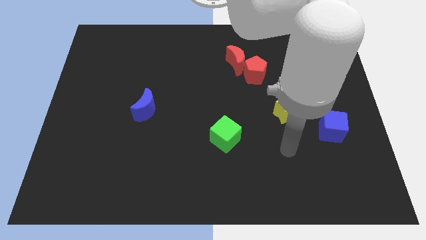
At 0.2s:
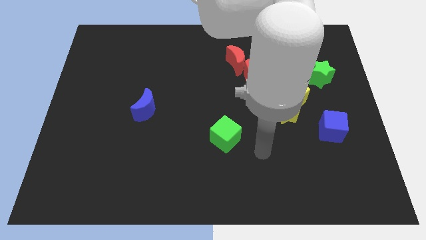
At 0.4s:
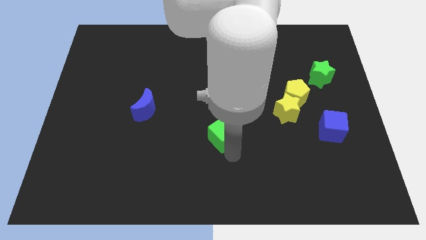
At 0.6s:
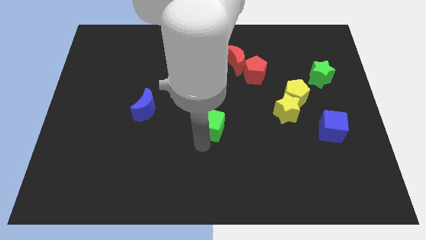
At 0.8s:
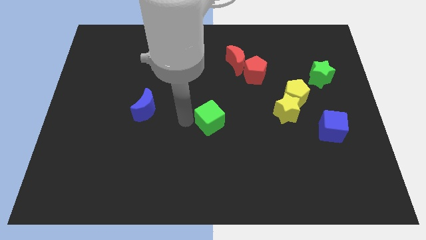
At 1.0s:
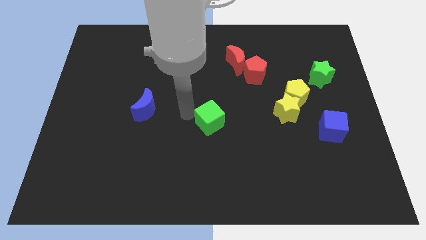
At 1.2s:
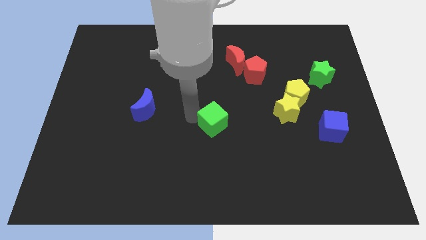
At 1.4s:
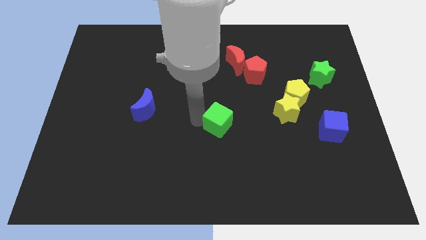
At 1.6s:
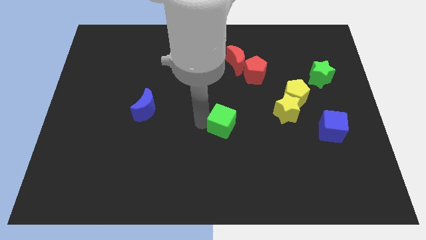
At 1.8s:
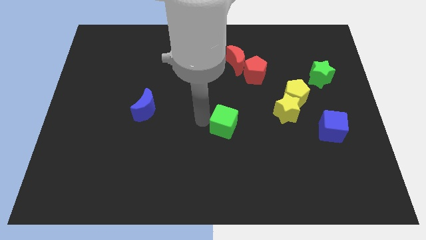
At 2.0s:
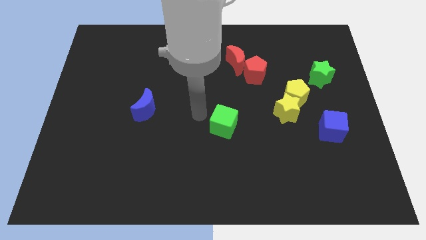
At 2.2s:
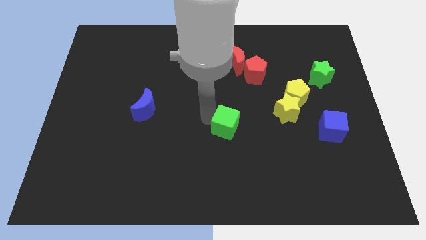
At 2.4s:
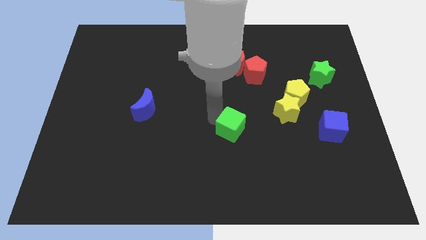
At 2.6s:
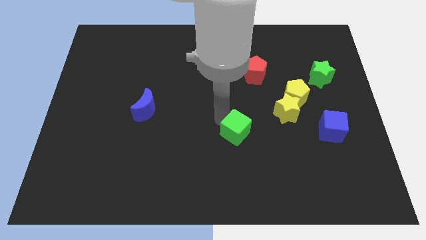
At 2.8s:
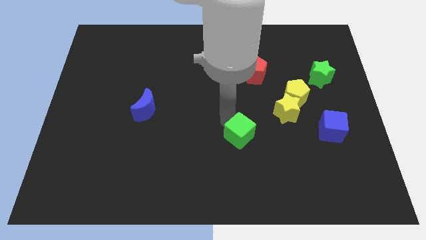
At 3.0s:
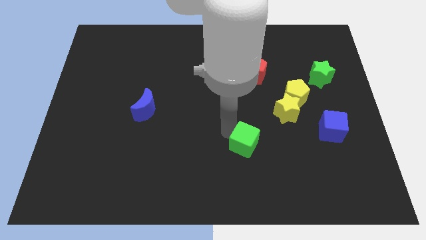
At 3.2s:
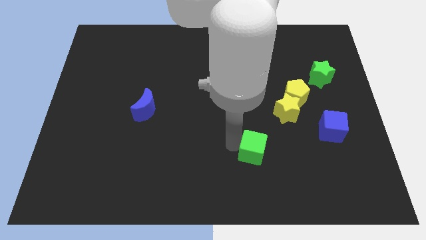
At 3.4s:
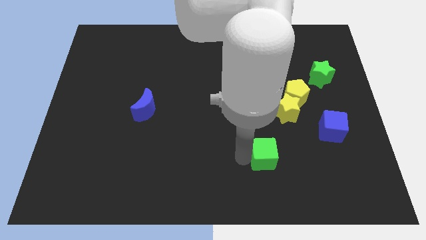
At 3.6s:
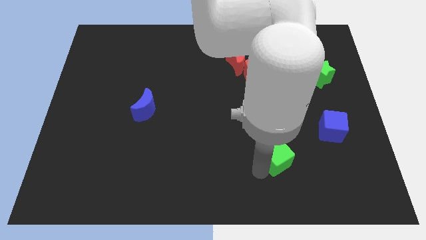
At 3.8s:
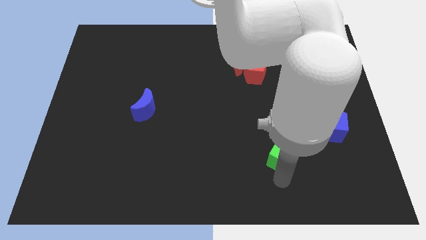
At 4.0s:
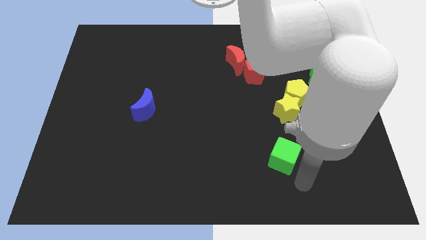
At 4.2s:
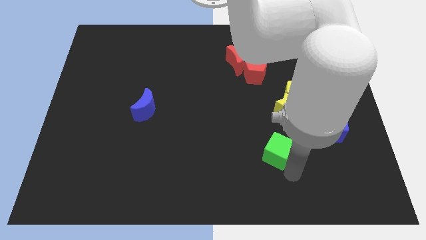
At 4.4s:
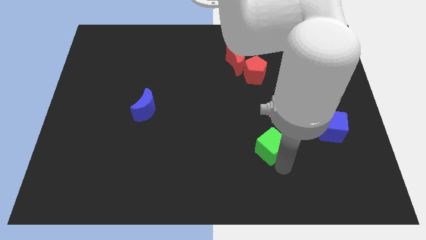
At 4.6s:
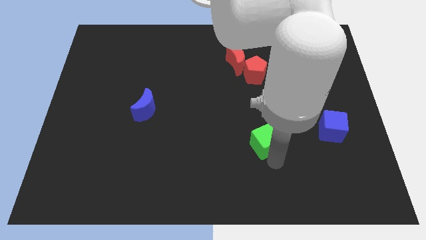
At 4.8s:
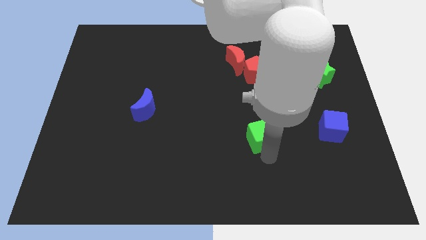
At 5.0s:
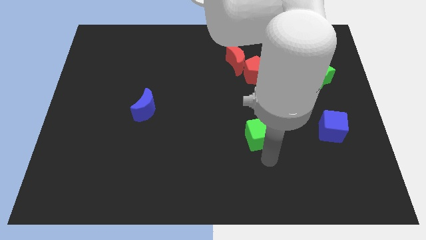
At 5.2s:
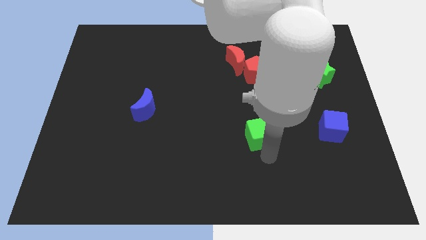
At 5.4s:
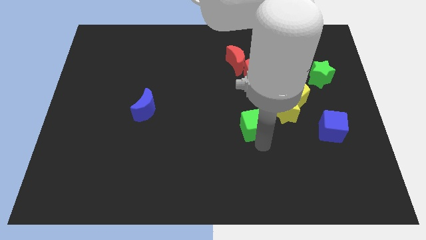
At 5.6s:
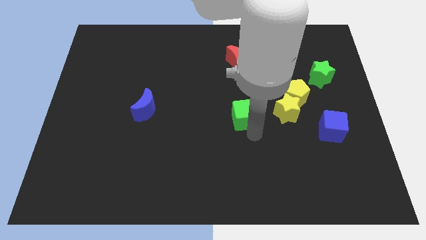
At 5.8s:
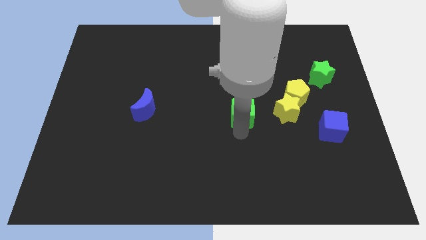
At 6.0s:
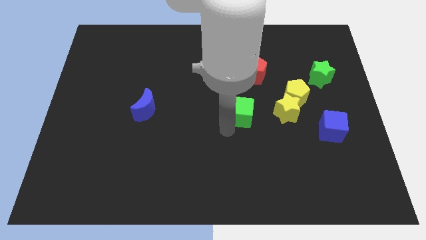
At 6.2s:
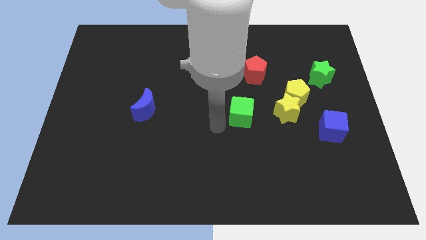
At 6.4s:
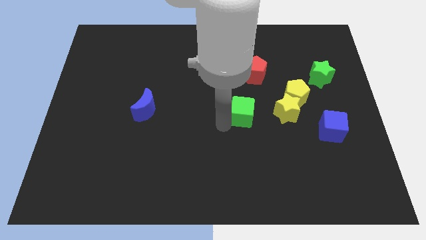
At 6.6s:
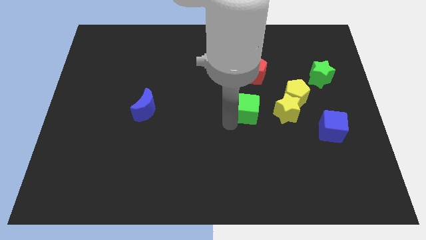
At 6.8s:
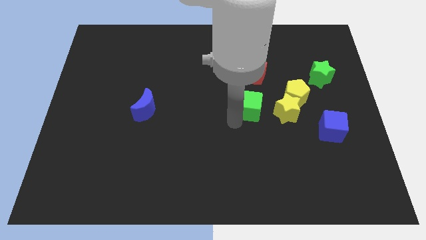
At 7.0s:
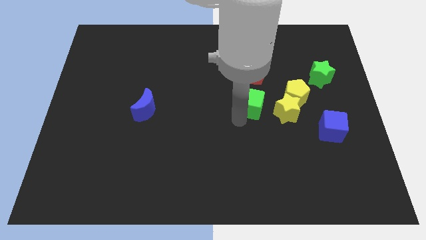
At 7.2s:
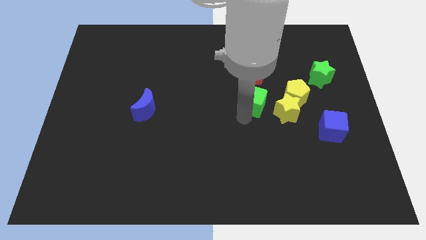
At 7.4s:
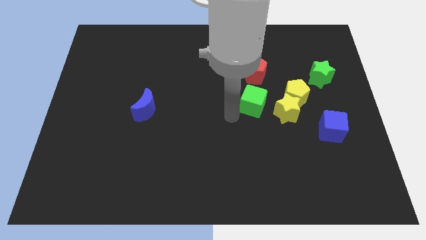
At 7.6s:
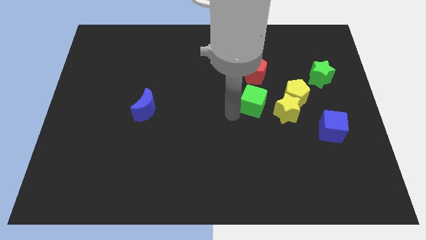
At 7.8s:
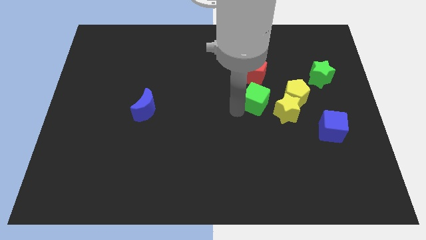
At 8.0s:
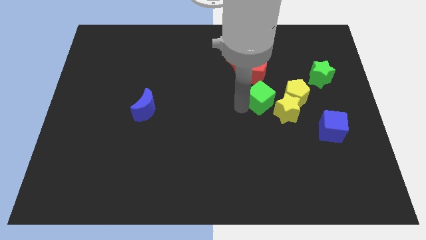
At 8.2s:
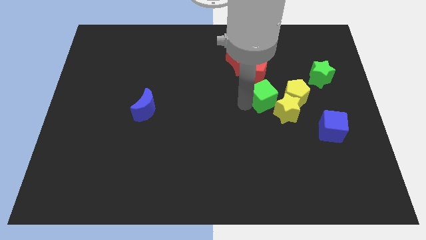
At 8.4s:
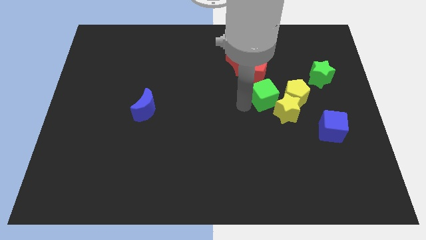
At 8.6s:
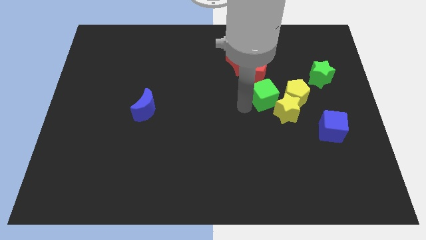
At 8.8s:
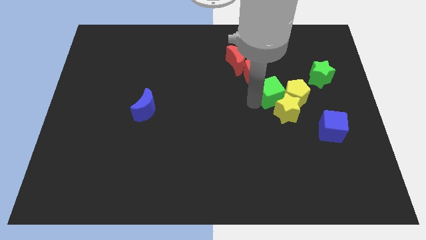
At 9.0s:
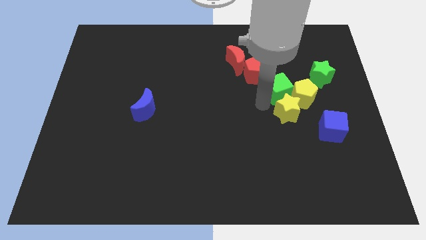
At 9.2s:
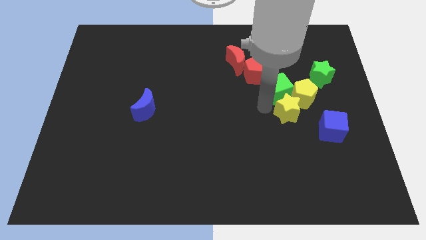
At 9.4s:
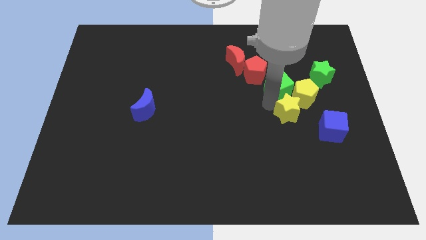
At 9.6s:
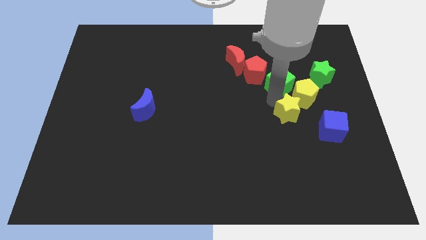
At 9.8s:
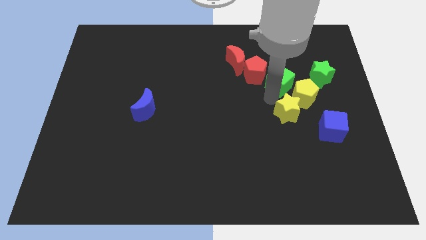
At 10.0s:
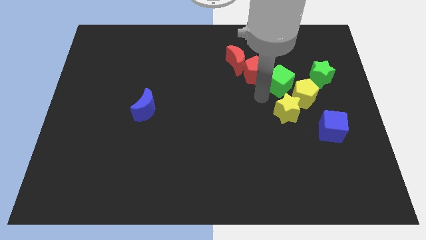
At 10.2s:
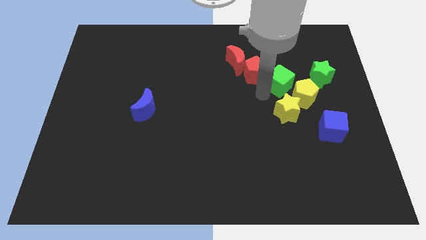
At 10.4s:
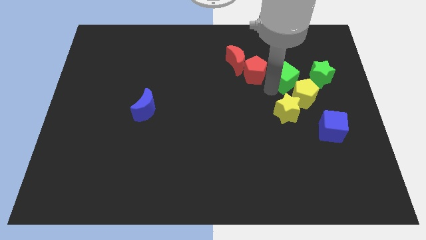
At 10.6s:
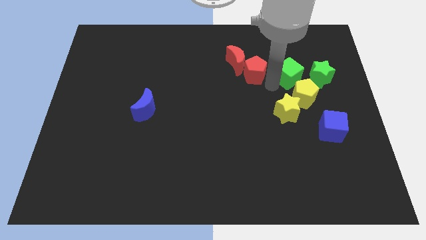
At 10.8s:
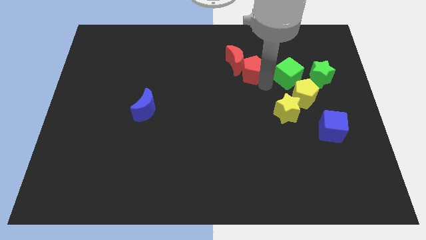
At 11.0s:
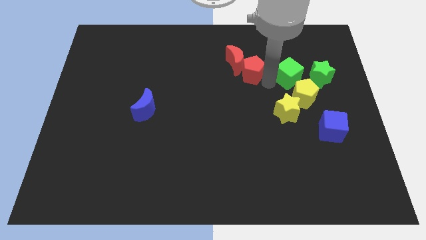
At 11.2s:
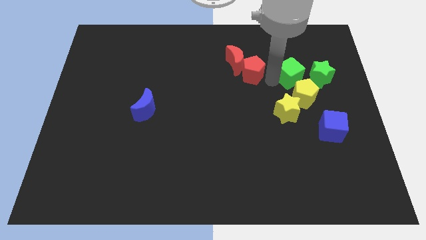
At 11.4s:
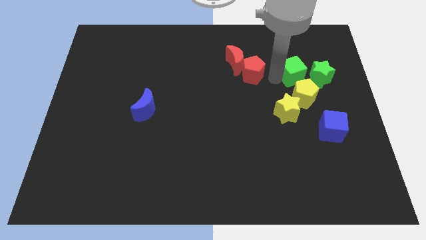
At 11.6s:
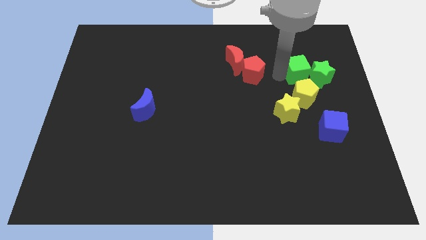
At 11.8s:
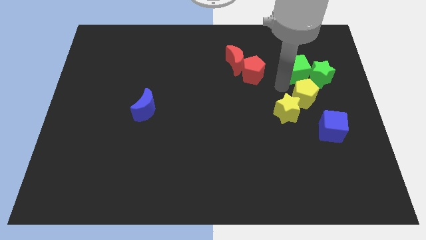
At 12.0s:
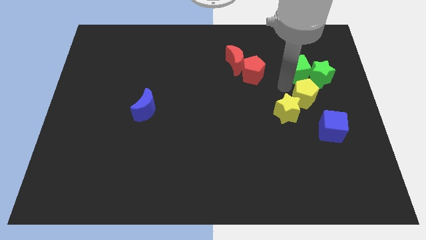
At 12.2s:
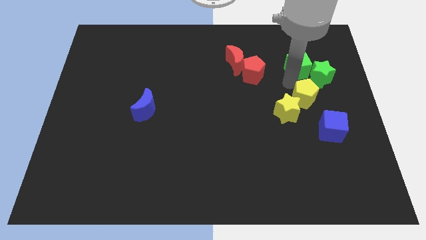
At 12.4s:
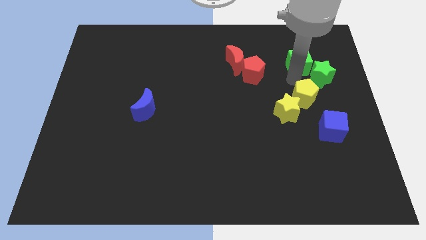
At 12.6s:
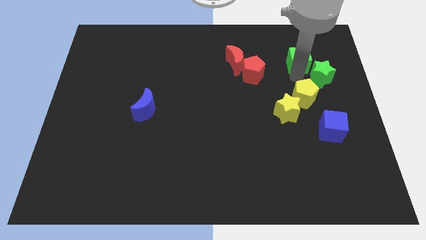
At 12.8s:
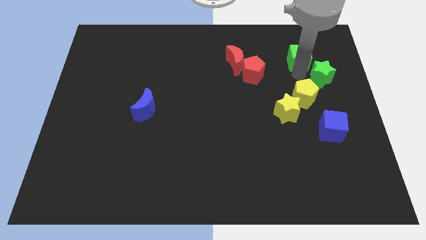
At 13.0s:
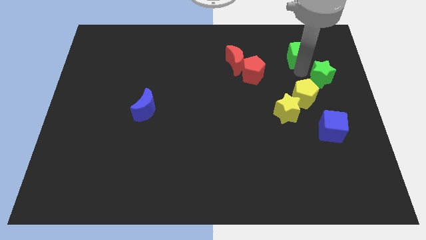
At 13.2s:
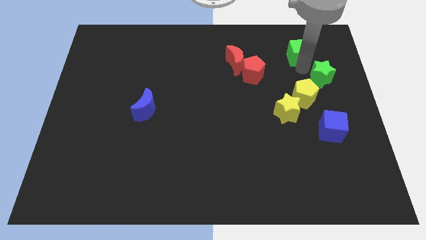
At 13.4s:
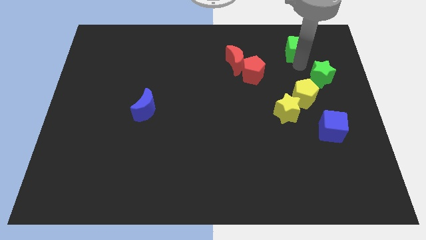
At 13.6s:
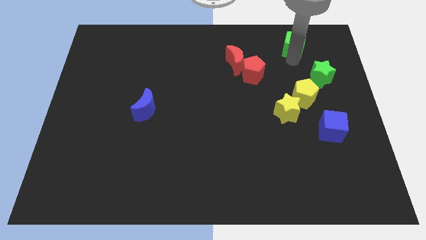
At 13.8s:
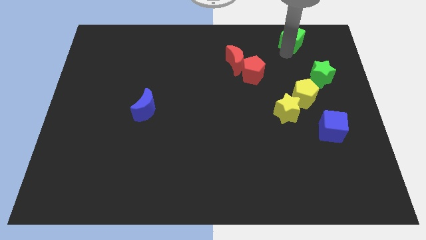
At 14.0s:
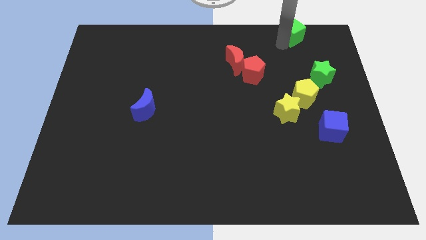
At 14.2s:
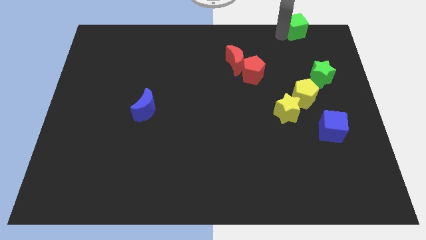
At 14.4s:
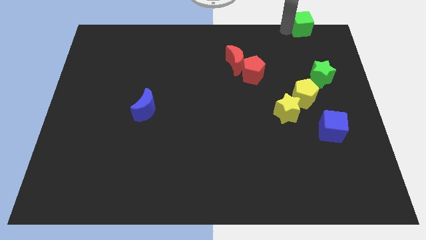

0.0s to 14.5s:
move the green cube to the upper right corner
